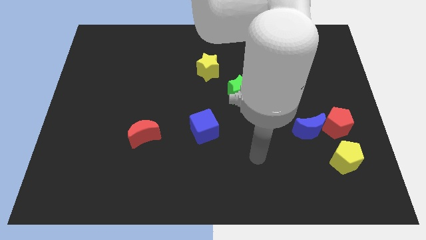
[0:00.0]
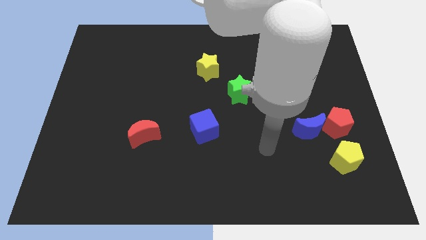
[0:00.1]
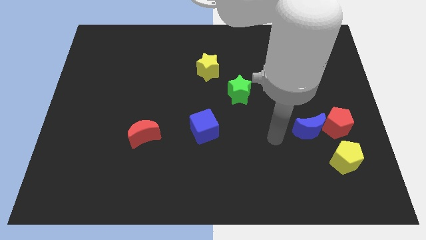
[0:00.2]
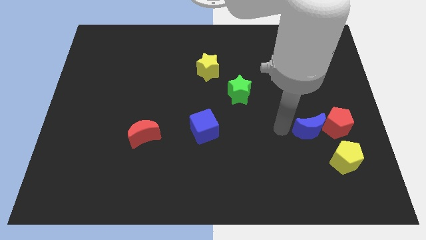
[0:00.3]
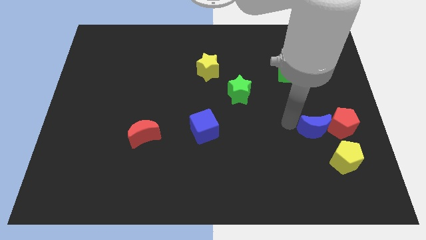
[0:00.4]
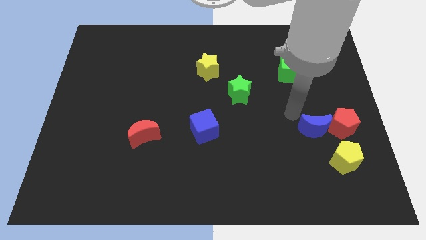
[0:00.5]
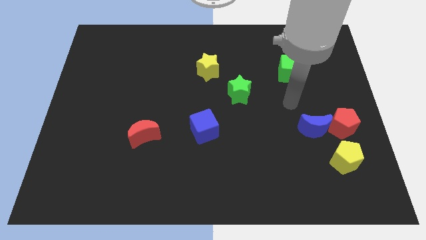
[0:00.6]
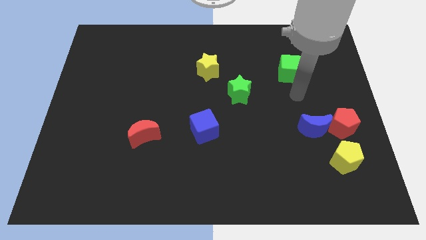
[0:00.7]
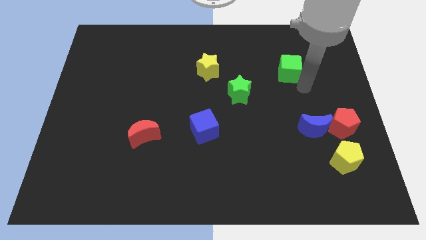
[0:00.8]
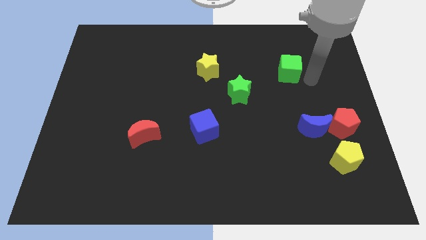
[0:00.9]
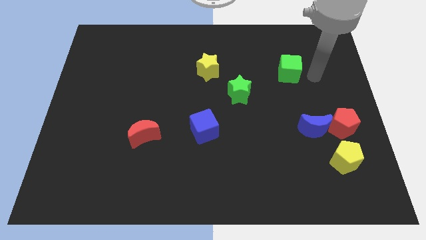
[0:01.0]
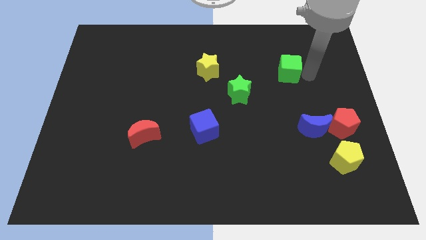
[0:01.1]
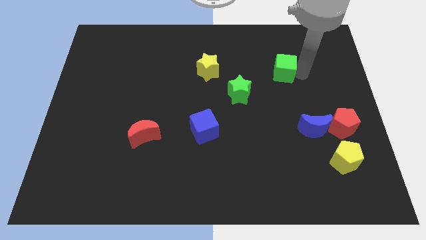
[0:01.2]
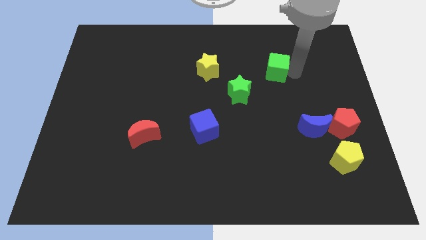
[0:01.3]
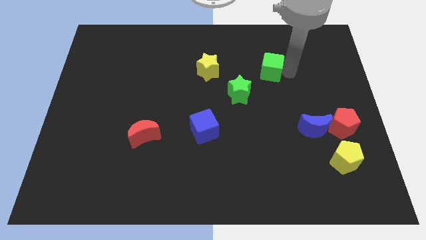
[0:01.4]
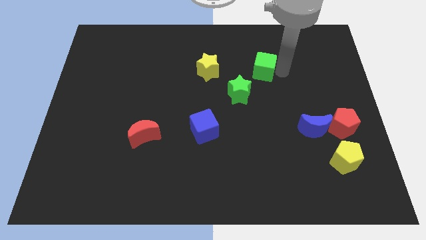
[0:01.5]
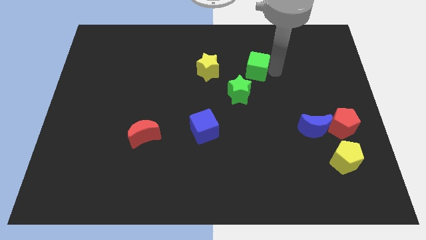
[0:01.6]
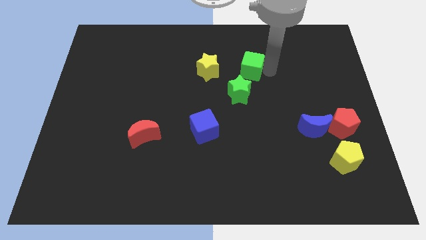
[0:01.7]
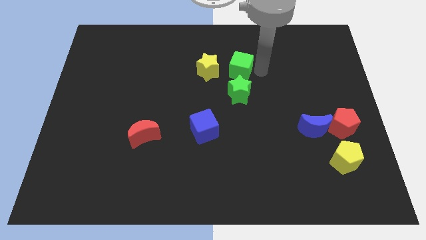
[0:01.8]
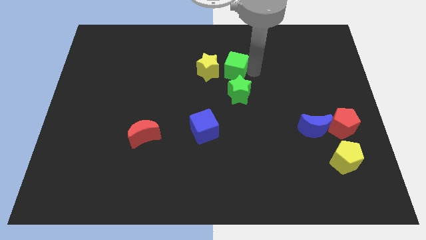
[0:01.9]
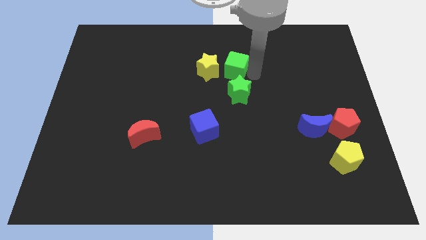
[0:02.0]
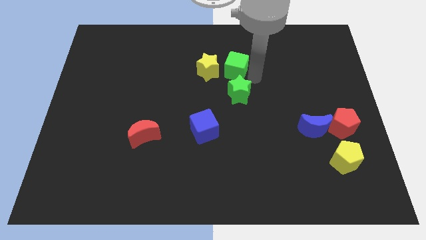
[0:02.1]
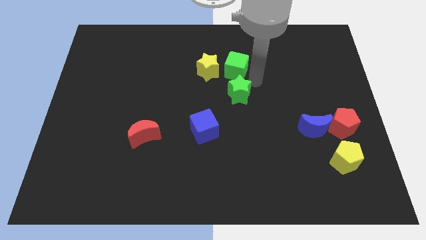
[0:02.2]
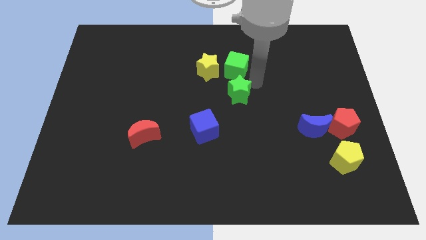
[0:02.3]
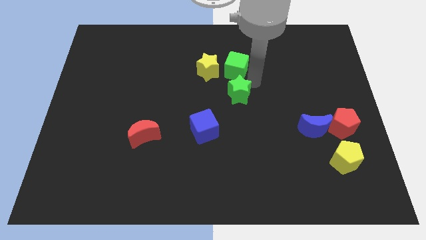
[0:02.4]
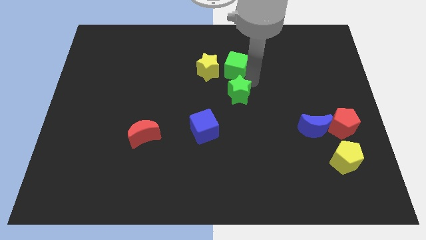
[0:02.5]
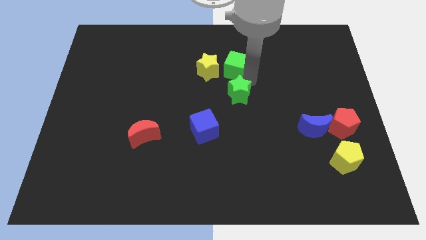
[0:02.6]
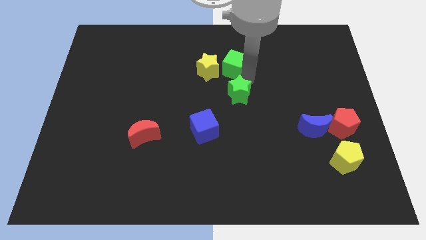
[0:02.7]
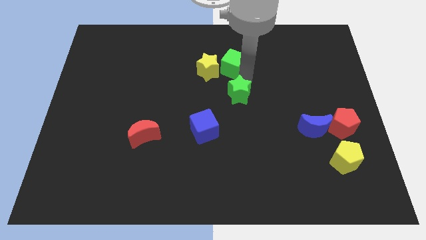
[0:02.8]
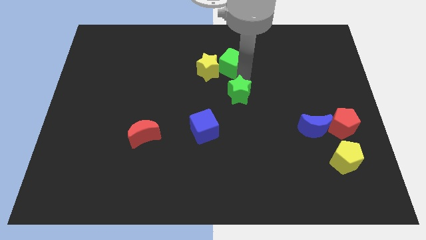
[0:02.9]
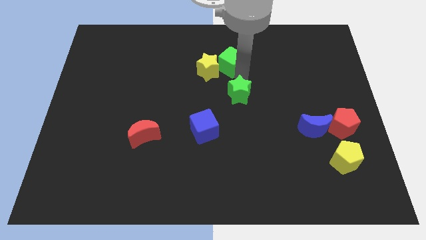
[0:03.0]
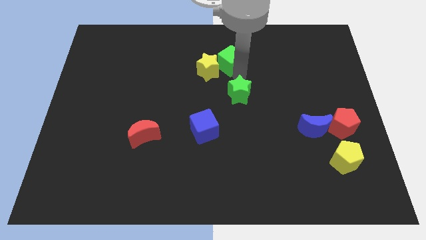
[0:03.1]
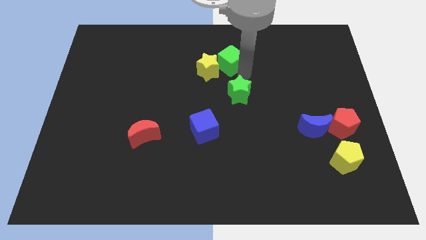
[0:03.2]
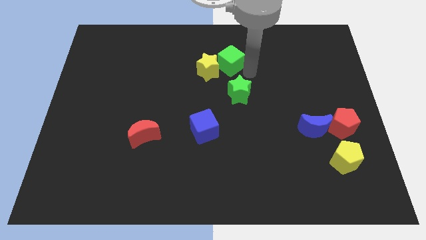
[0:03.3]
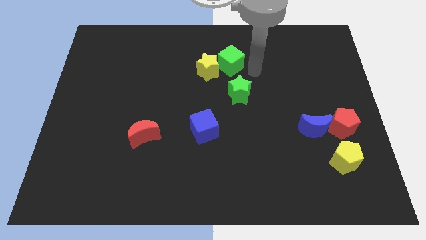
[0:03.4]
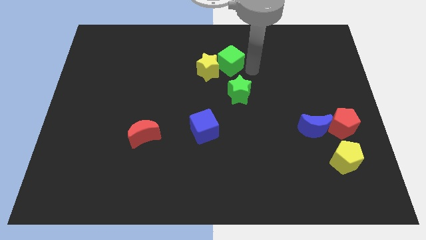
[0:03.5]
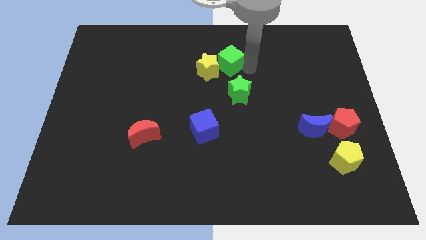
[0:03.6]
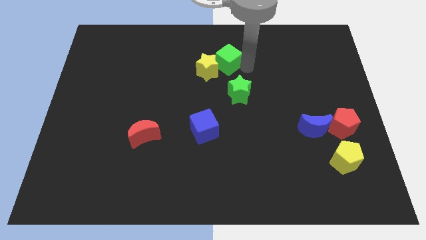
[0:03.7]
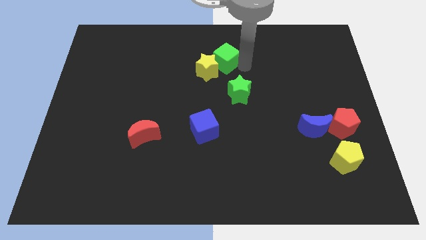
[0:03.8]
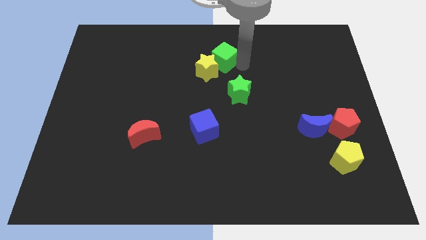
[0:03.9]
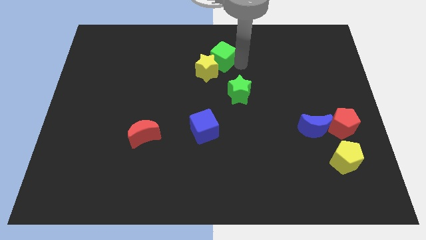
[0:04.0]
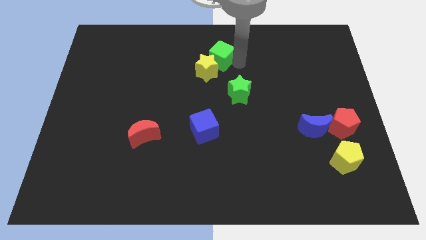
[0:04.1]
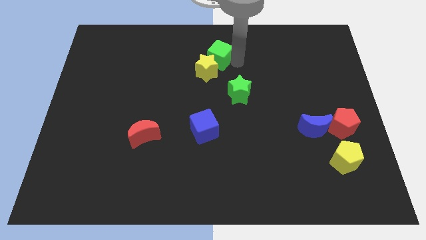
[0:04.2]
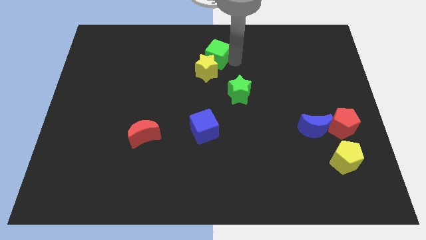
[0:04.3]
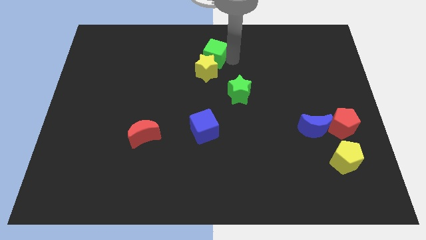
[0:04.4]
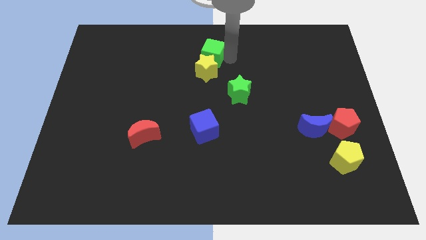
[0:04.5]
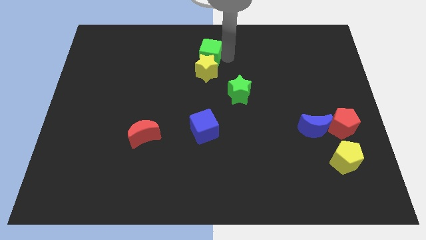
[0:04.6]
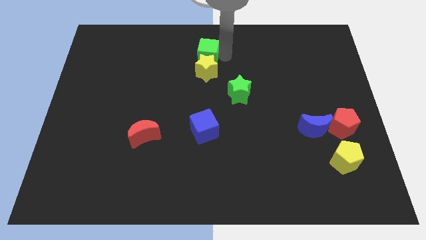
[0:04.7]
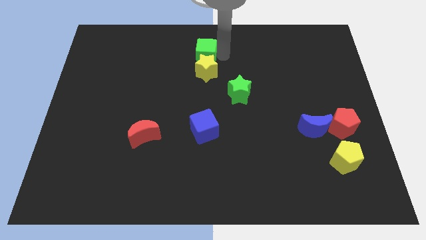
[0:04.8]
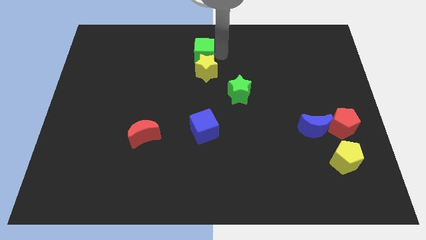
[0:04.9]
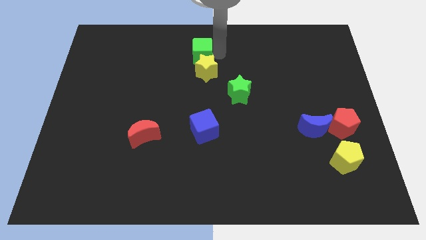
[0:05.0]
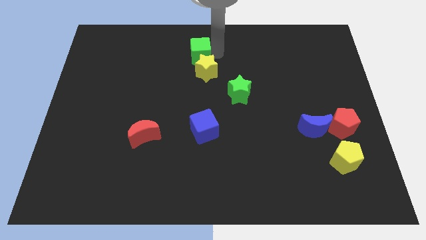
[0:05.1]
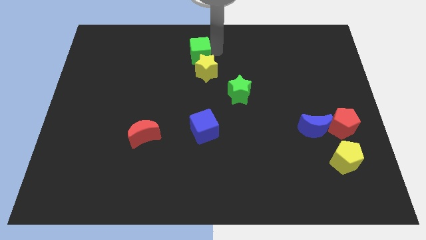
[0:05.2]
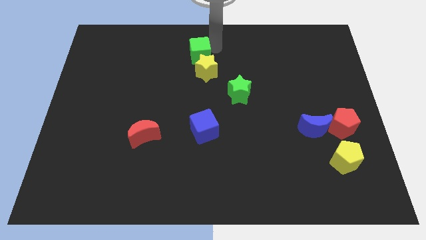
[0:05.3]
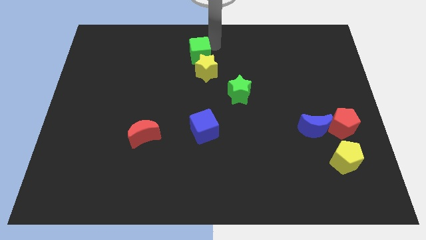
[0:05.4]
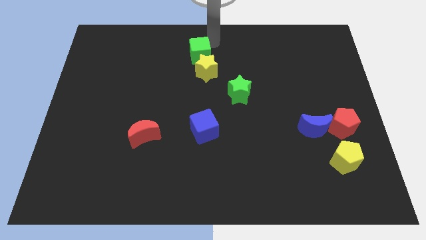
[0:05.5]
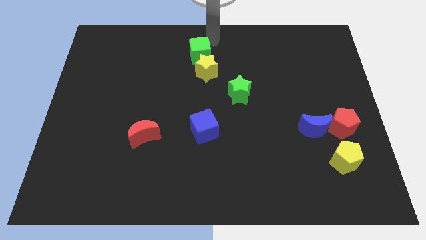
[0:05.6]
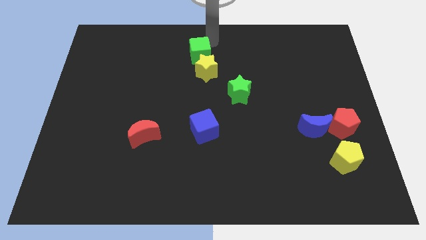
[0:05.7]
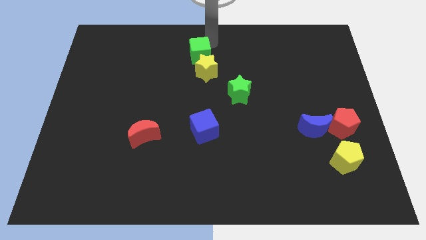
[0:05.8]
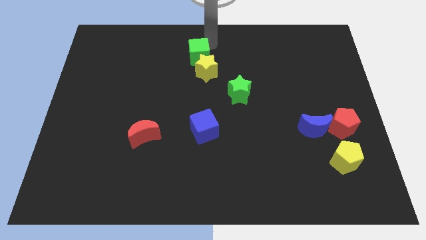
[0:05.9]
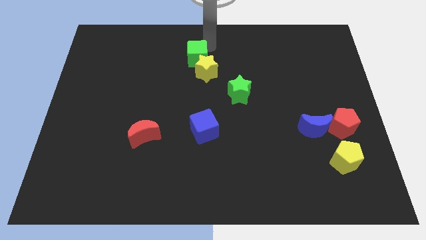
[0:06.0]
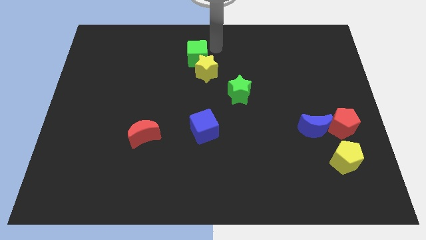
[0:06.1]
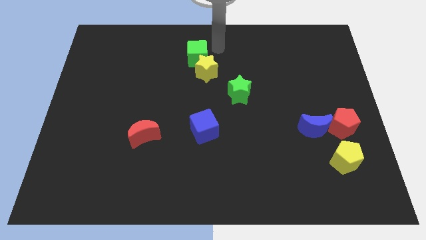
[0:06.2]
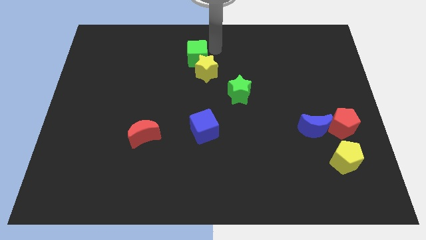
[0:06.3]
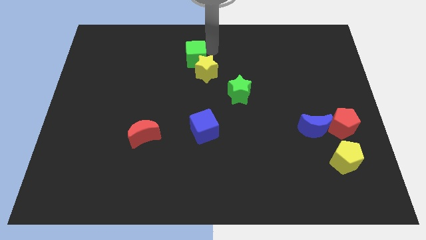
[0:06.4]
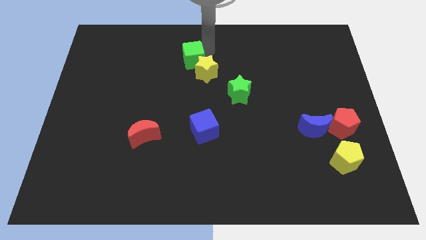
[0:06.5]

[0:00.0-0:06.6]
put the green cube to the left of the yellow star
